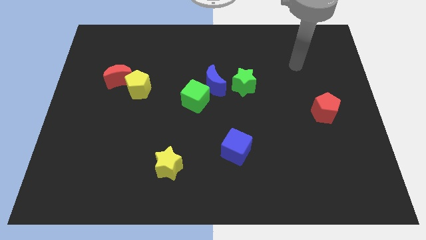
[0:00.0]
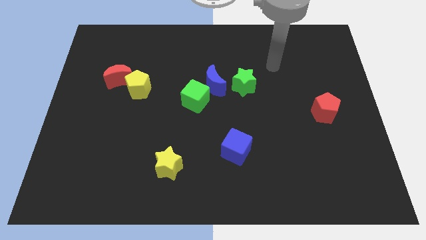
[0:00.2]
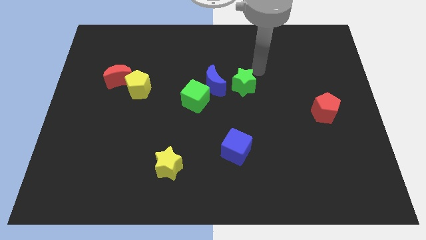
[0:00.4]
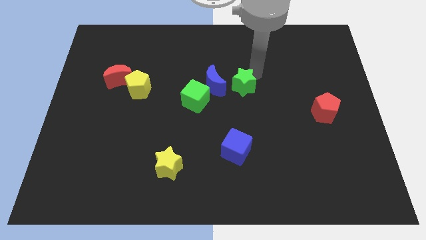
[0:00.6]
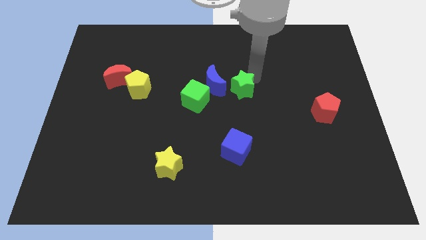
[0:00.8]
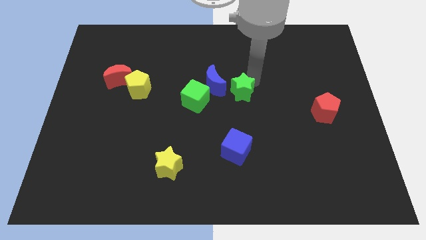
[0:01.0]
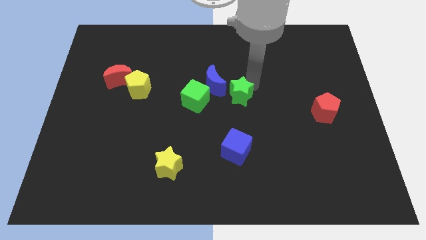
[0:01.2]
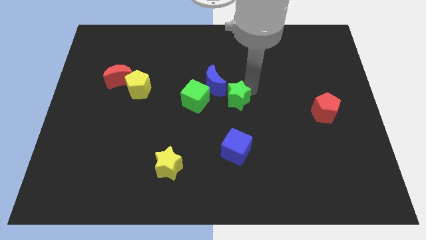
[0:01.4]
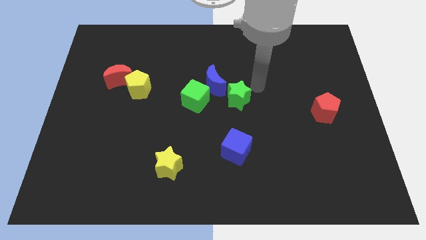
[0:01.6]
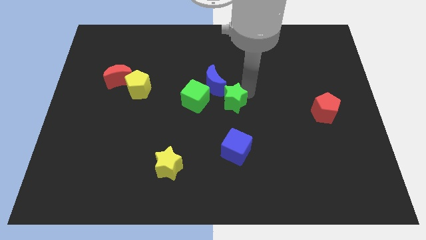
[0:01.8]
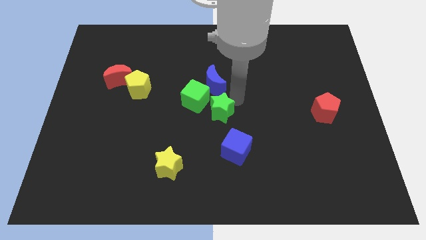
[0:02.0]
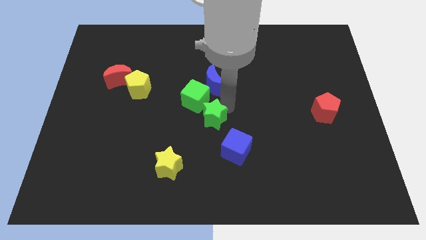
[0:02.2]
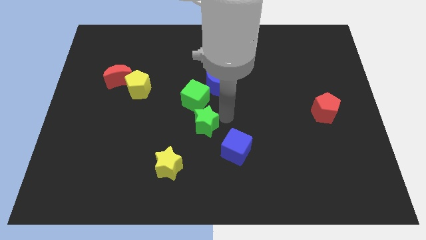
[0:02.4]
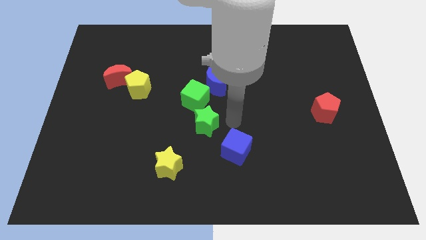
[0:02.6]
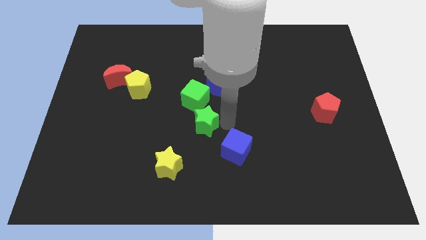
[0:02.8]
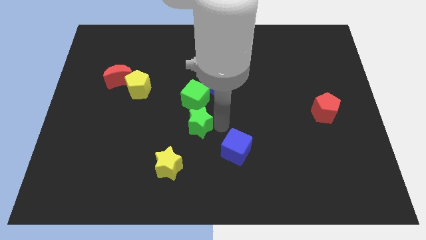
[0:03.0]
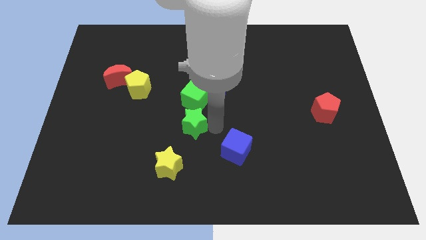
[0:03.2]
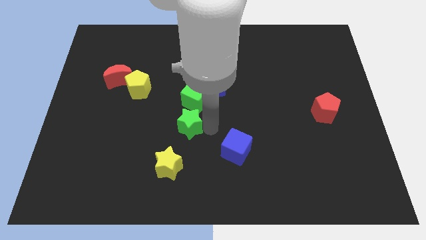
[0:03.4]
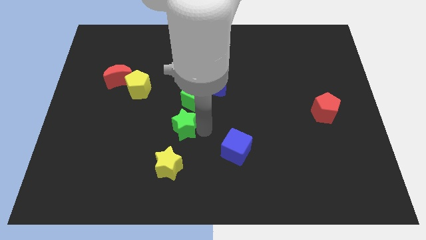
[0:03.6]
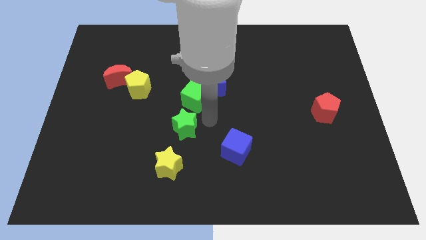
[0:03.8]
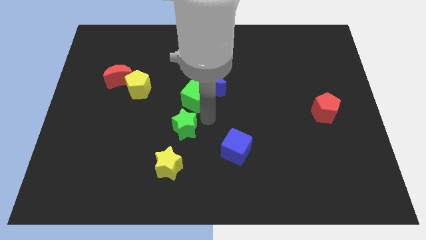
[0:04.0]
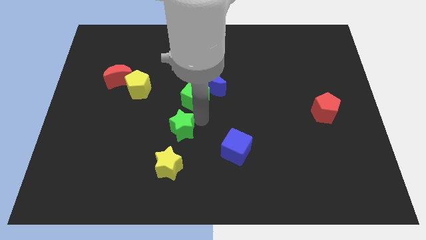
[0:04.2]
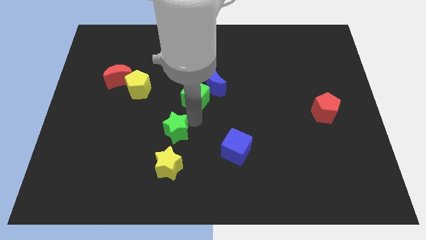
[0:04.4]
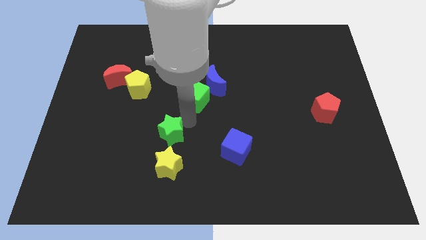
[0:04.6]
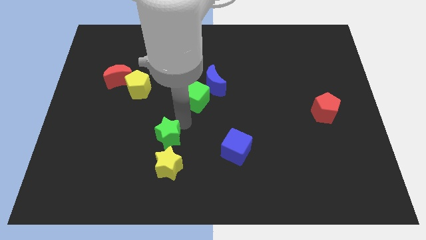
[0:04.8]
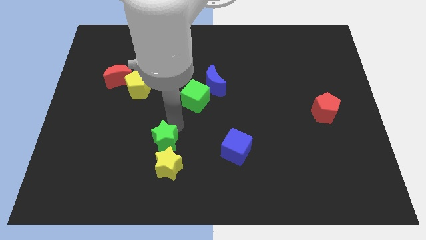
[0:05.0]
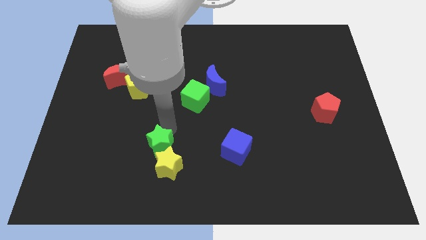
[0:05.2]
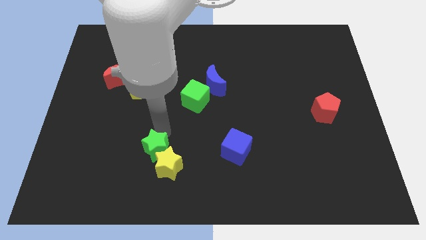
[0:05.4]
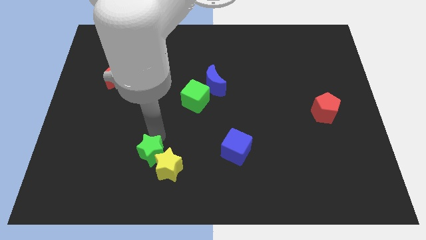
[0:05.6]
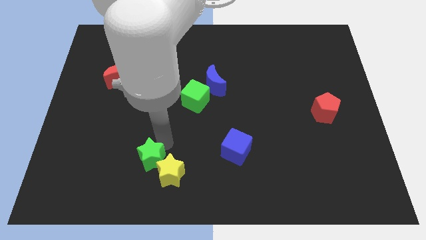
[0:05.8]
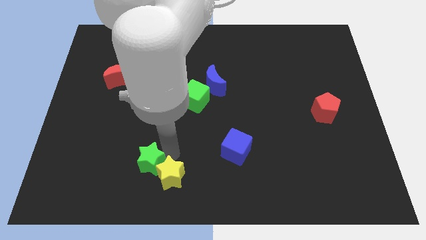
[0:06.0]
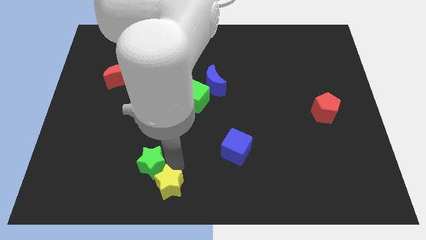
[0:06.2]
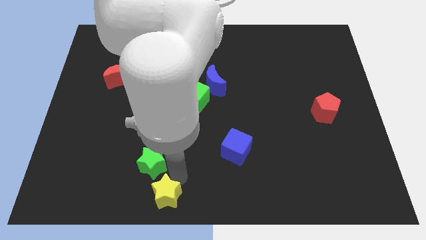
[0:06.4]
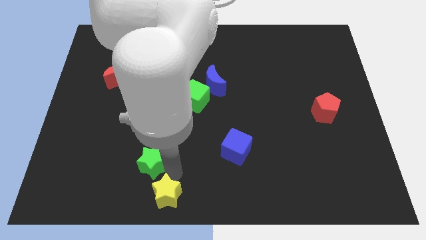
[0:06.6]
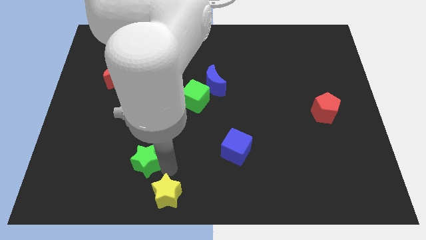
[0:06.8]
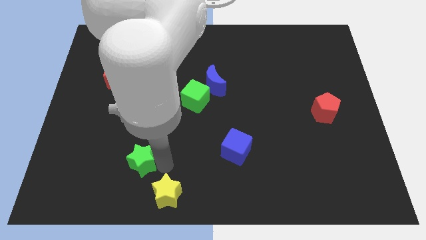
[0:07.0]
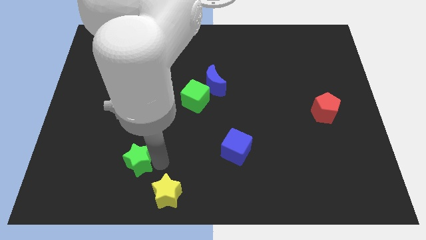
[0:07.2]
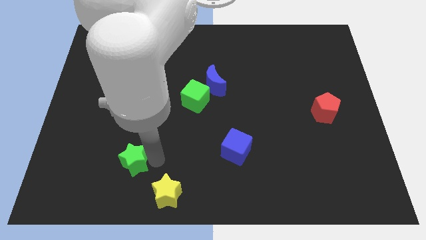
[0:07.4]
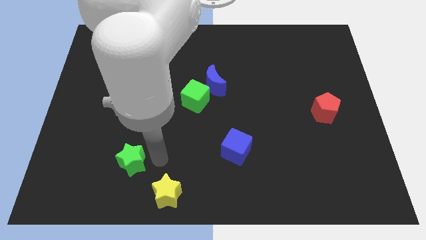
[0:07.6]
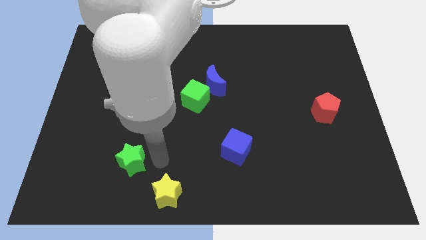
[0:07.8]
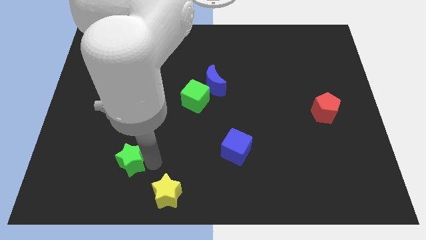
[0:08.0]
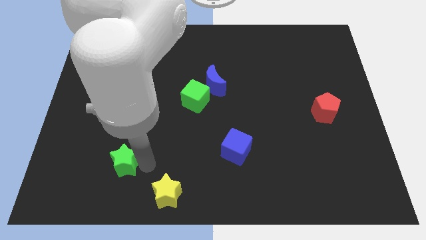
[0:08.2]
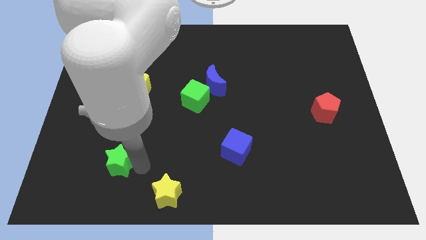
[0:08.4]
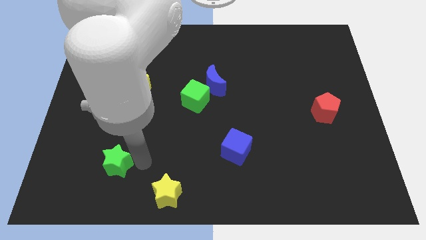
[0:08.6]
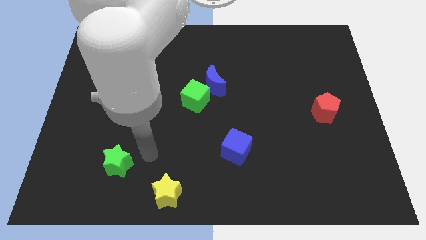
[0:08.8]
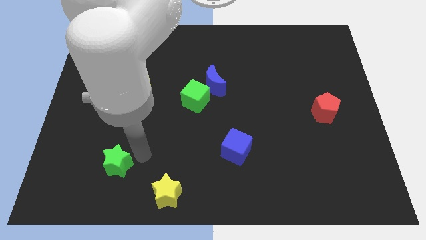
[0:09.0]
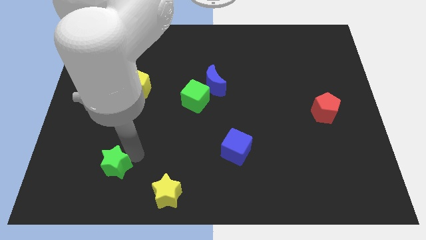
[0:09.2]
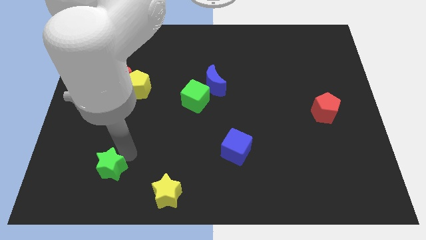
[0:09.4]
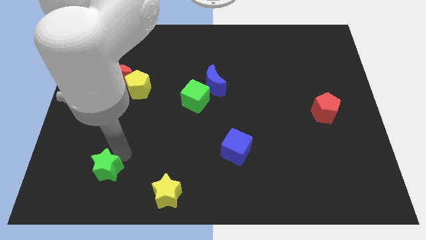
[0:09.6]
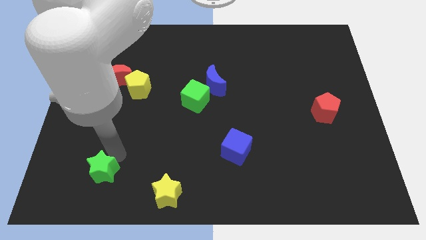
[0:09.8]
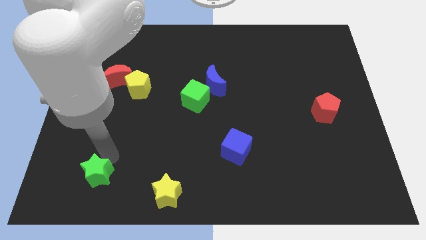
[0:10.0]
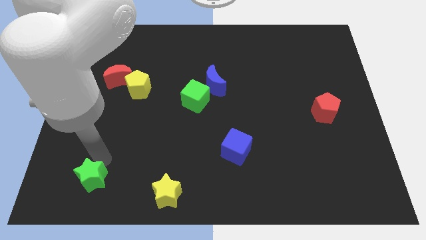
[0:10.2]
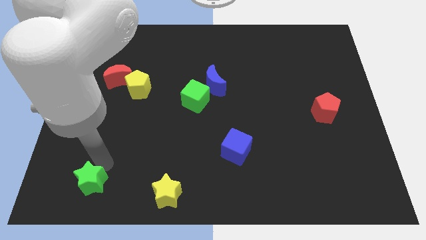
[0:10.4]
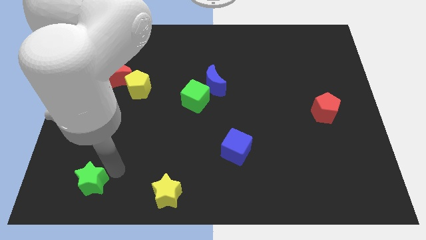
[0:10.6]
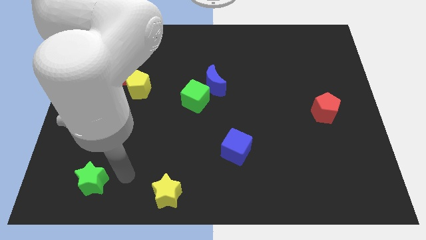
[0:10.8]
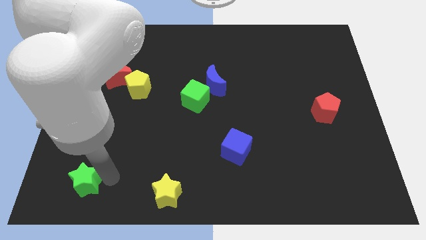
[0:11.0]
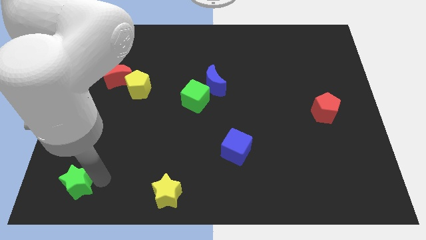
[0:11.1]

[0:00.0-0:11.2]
move the green star to the bottom left corner
